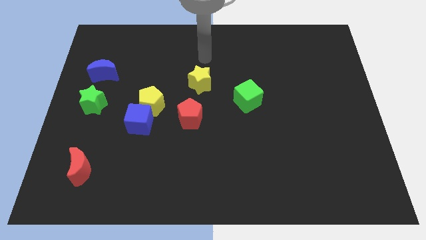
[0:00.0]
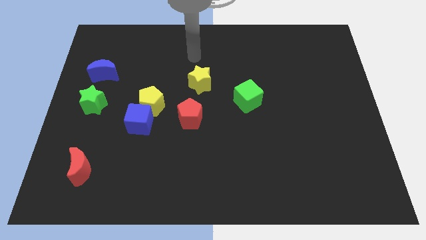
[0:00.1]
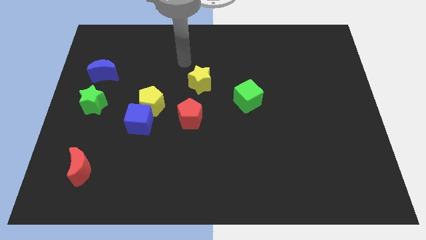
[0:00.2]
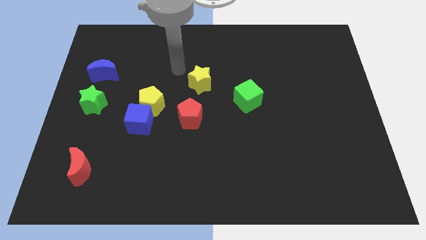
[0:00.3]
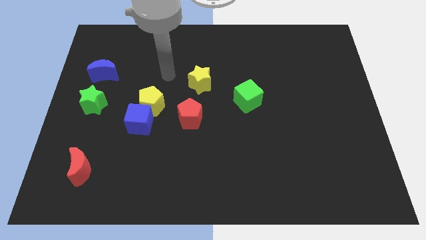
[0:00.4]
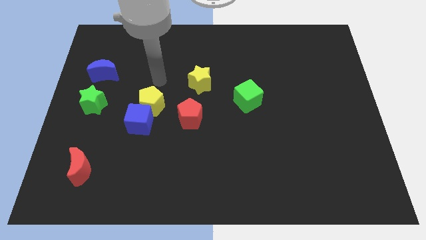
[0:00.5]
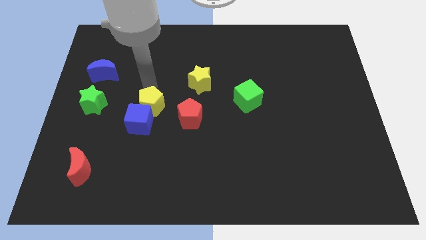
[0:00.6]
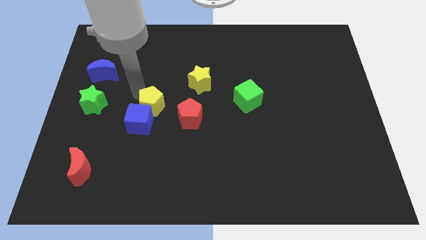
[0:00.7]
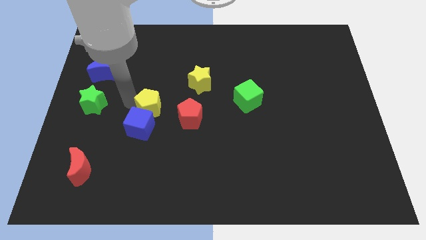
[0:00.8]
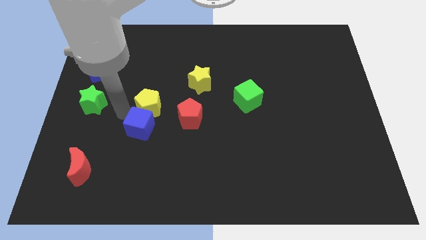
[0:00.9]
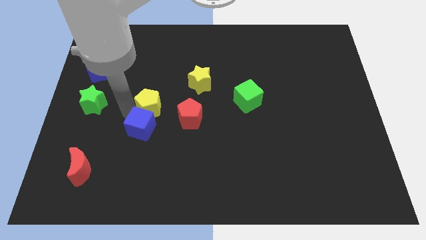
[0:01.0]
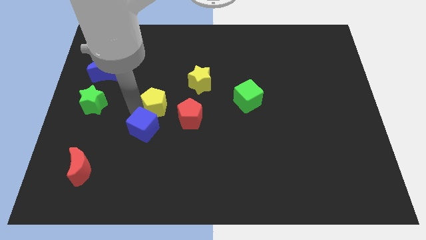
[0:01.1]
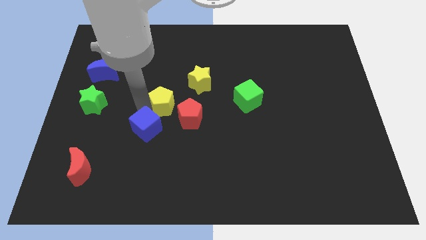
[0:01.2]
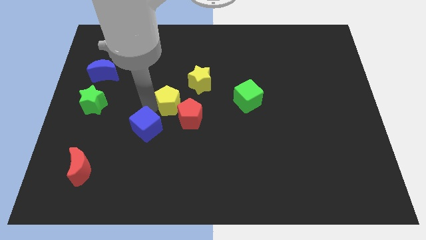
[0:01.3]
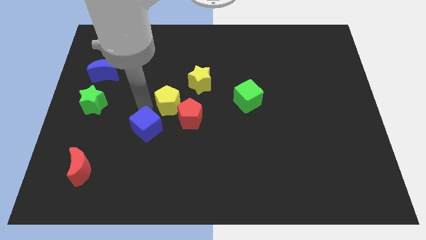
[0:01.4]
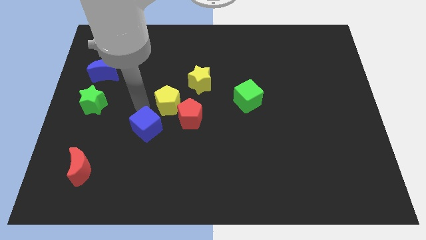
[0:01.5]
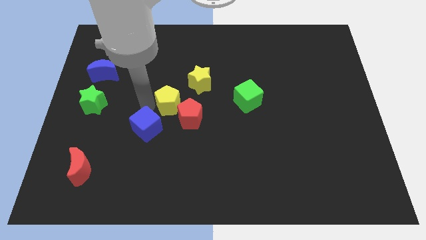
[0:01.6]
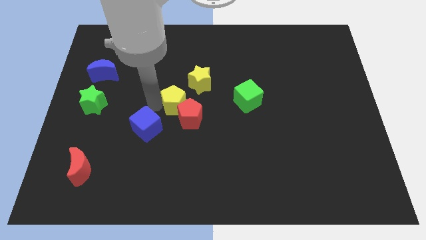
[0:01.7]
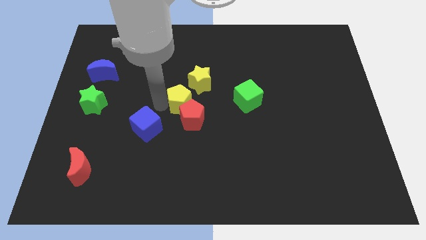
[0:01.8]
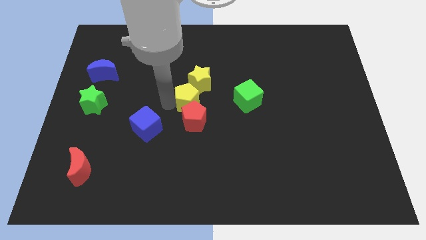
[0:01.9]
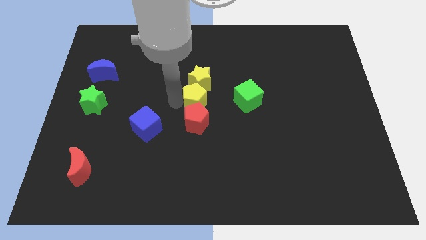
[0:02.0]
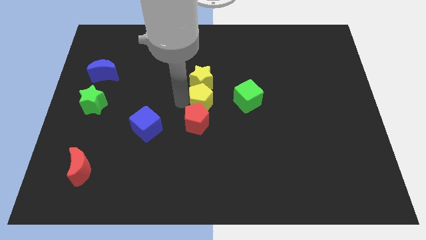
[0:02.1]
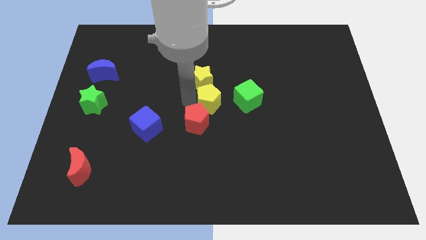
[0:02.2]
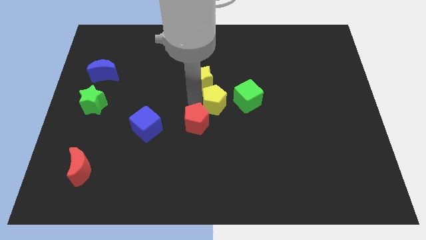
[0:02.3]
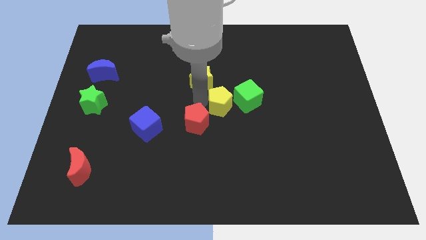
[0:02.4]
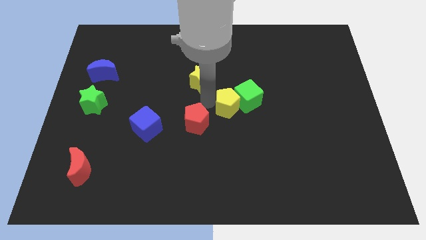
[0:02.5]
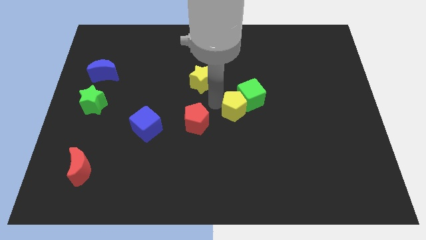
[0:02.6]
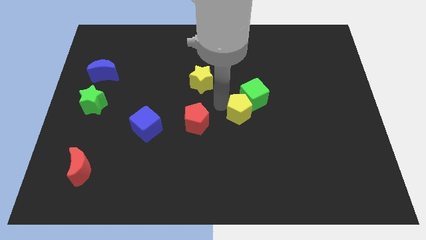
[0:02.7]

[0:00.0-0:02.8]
move the yellow pentagon to the right

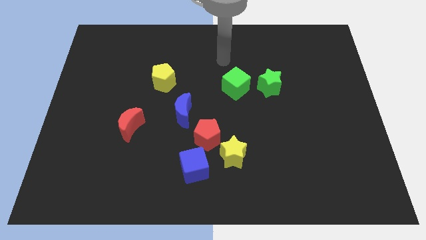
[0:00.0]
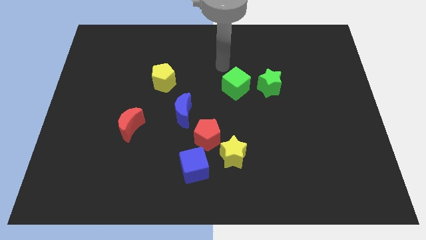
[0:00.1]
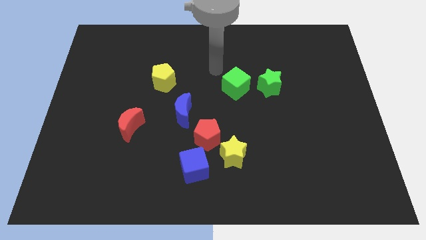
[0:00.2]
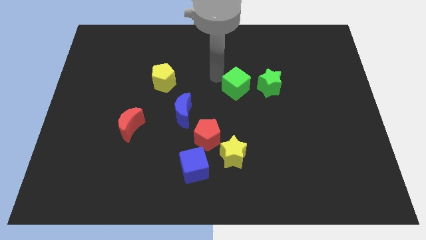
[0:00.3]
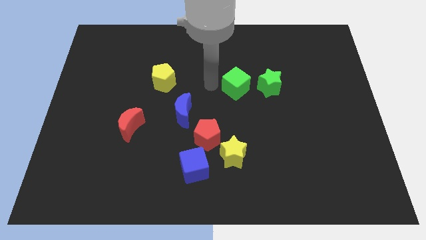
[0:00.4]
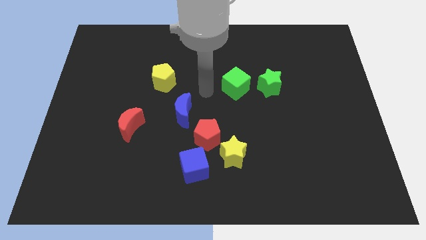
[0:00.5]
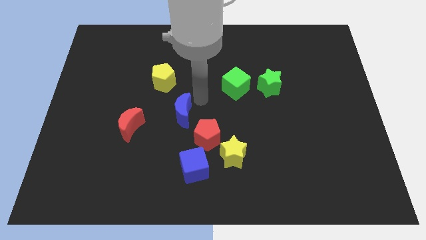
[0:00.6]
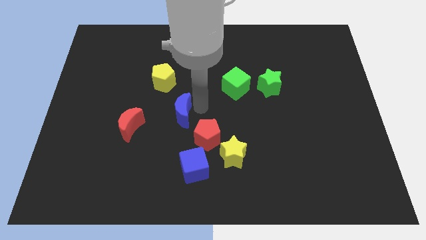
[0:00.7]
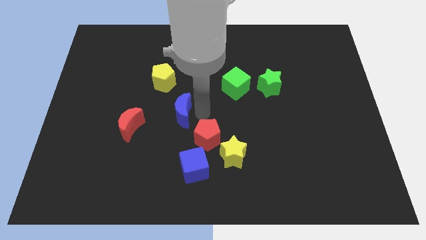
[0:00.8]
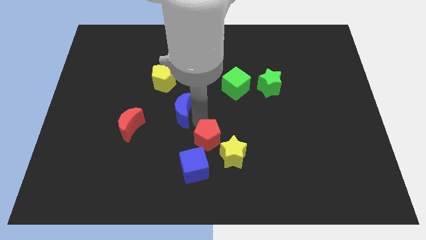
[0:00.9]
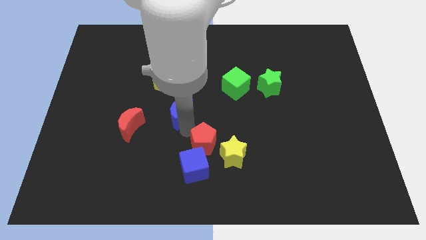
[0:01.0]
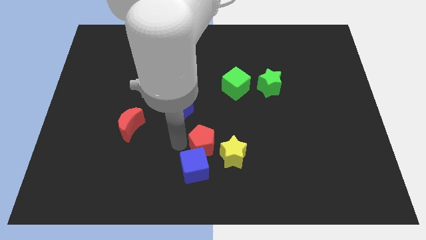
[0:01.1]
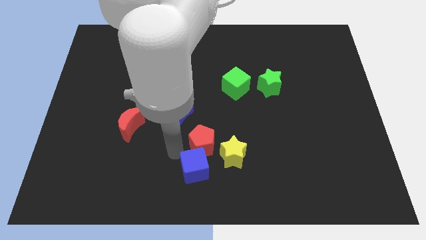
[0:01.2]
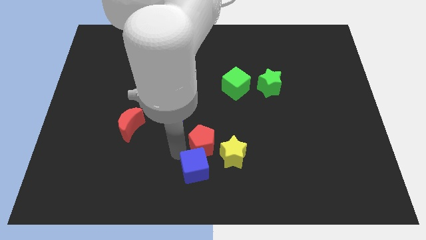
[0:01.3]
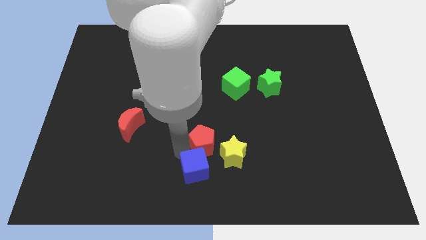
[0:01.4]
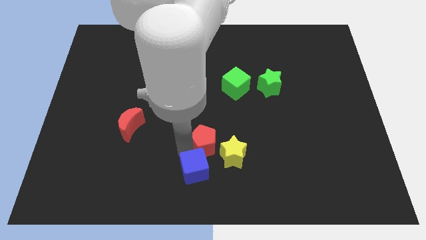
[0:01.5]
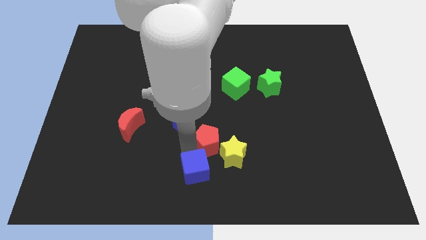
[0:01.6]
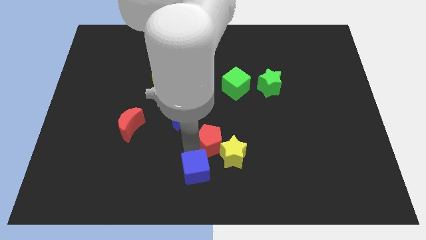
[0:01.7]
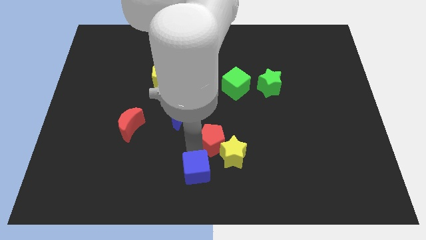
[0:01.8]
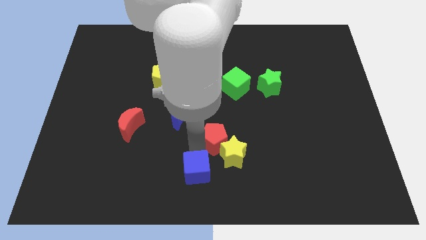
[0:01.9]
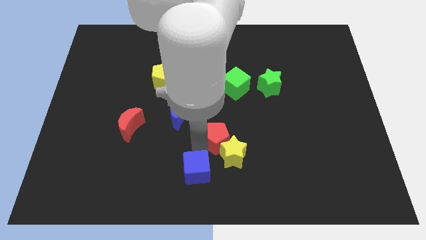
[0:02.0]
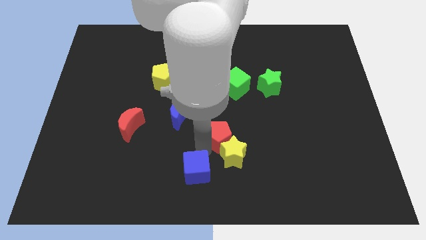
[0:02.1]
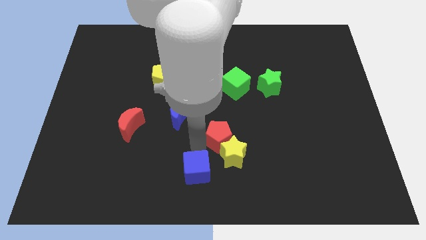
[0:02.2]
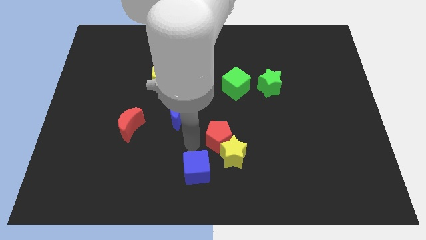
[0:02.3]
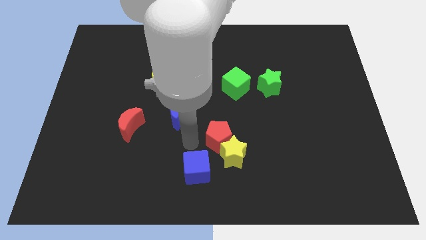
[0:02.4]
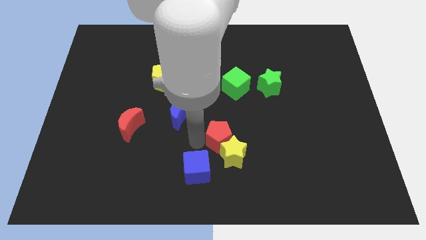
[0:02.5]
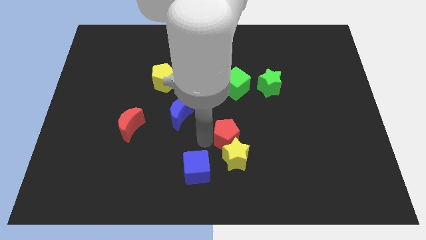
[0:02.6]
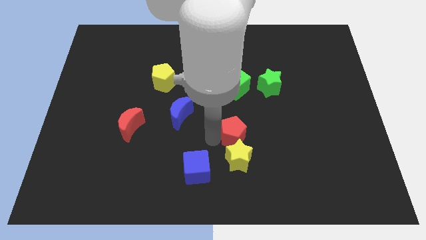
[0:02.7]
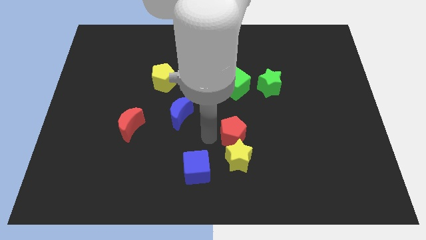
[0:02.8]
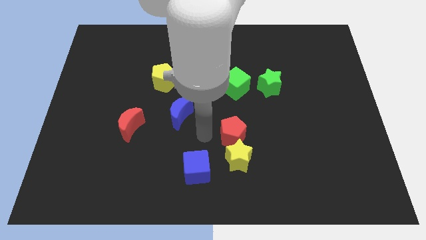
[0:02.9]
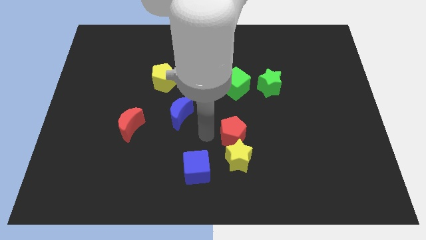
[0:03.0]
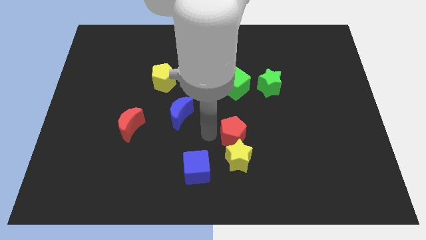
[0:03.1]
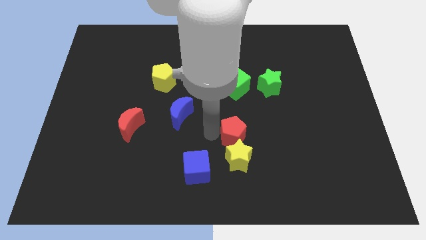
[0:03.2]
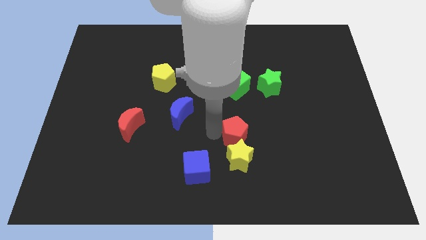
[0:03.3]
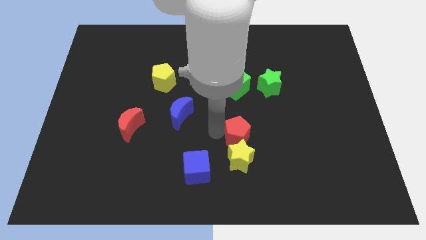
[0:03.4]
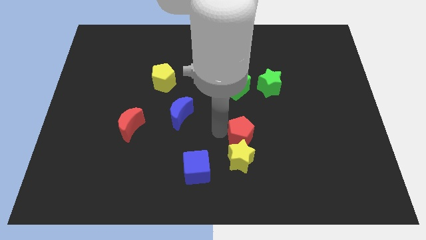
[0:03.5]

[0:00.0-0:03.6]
slide the red pentagon to the right a little bit

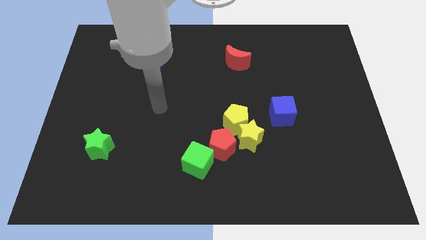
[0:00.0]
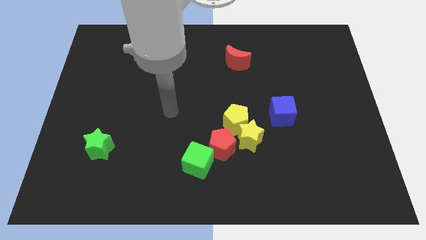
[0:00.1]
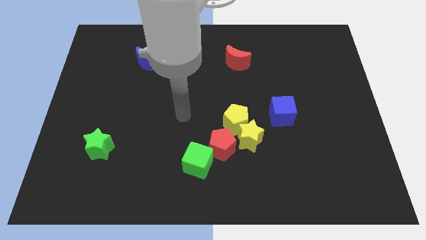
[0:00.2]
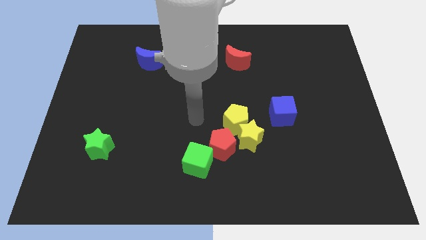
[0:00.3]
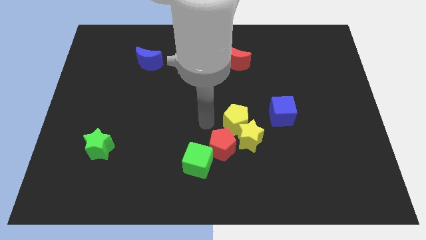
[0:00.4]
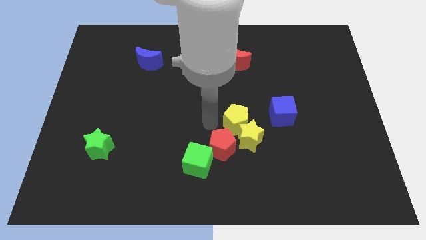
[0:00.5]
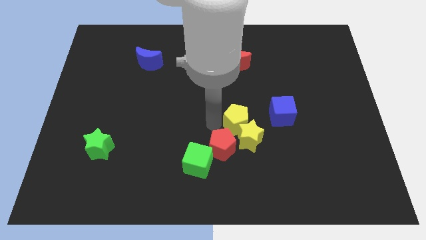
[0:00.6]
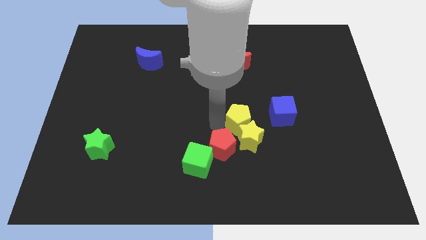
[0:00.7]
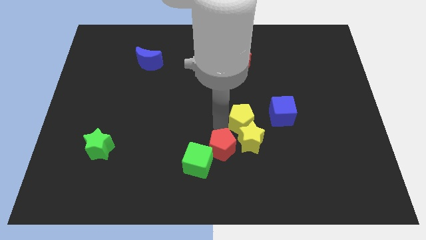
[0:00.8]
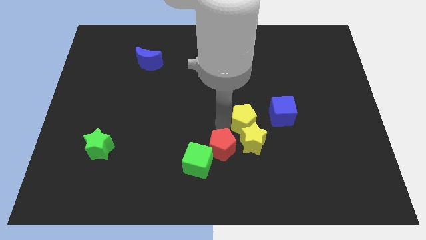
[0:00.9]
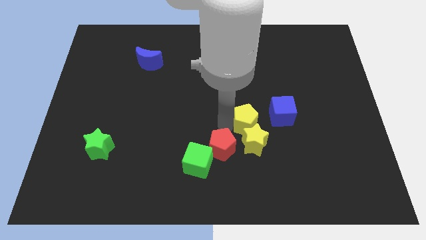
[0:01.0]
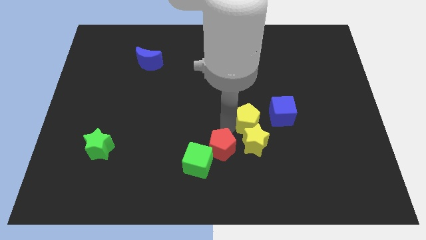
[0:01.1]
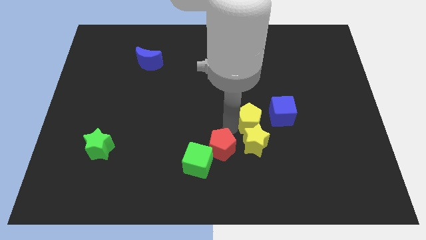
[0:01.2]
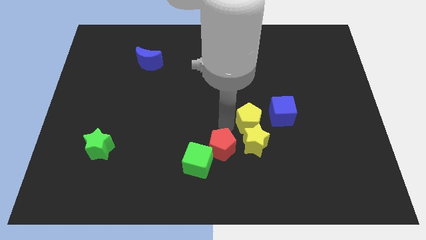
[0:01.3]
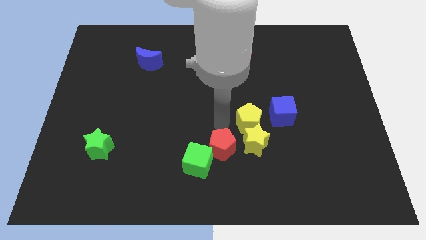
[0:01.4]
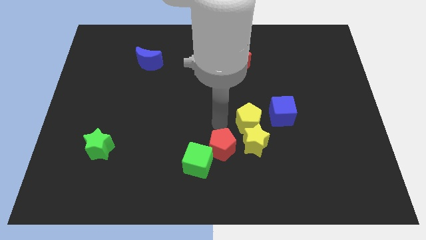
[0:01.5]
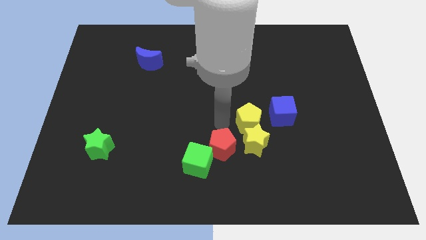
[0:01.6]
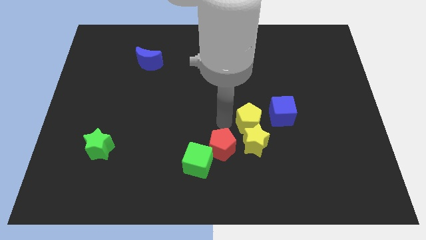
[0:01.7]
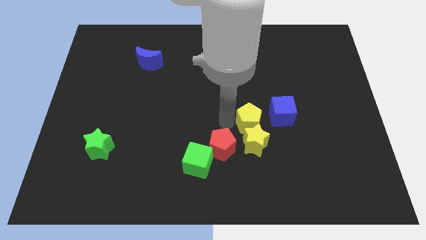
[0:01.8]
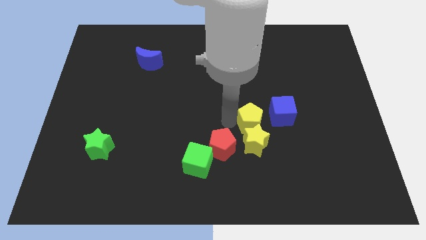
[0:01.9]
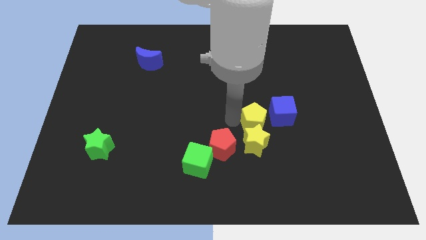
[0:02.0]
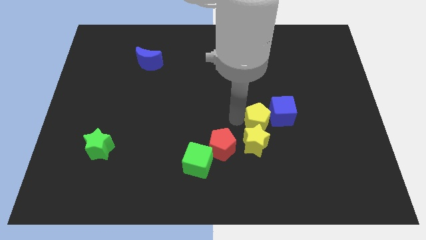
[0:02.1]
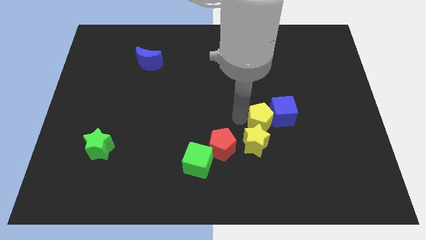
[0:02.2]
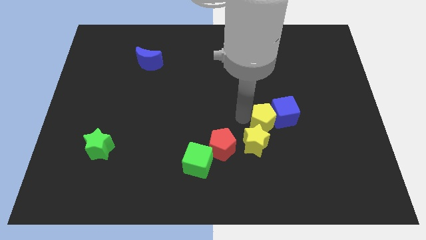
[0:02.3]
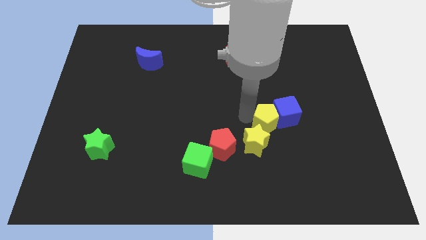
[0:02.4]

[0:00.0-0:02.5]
push the yellow pentagon somewhat to the right
